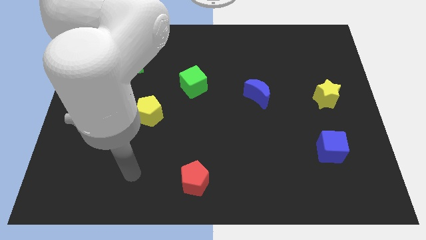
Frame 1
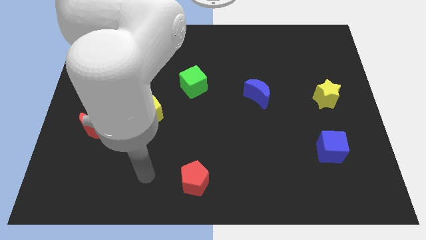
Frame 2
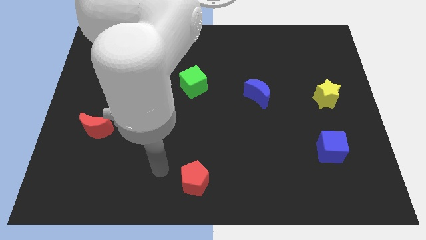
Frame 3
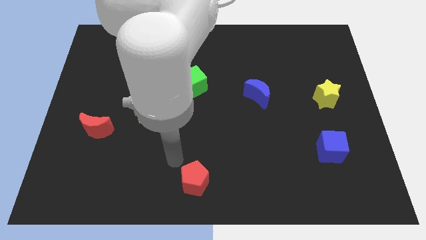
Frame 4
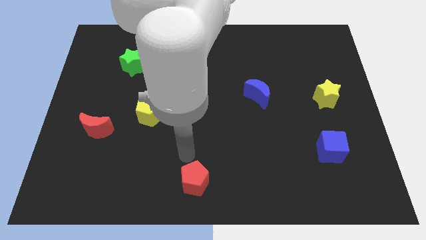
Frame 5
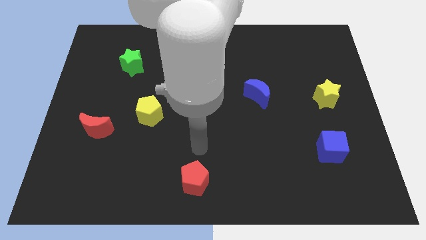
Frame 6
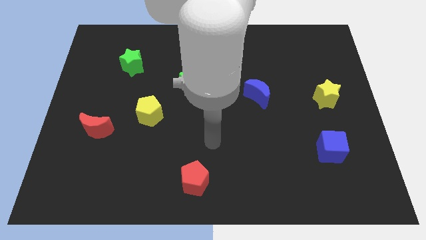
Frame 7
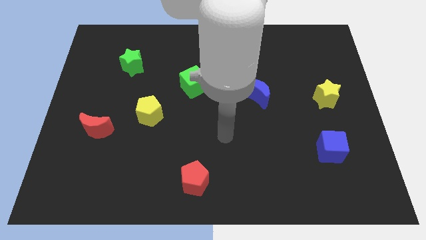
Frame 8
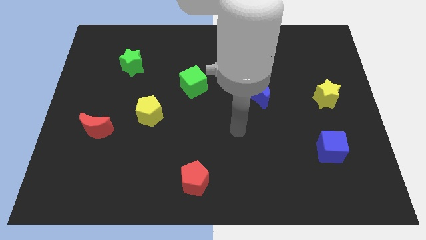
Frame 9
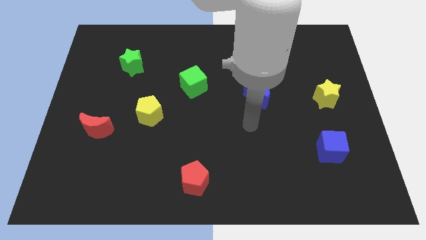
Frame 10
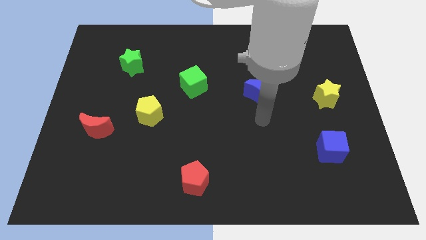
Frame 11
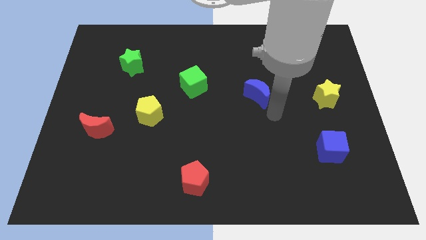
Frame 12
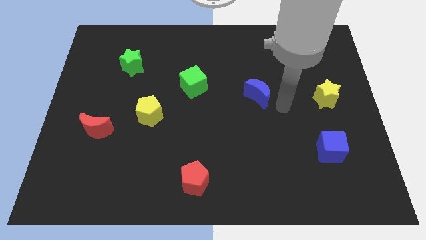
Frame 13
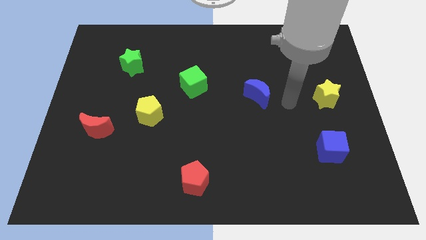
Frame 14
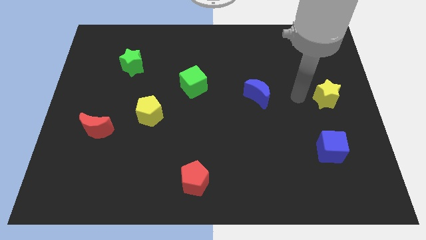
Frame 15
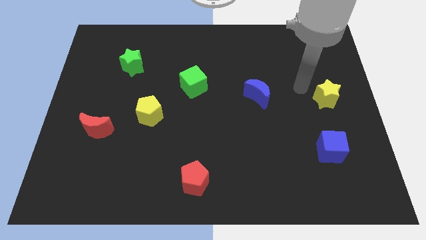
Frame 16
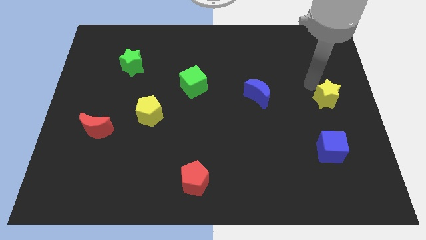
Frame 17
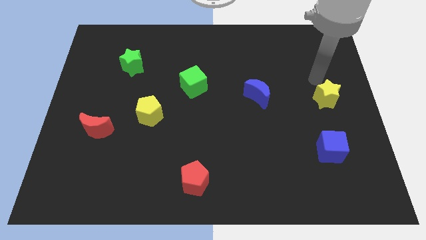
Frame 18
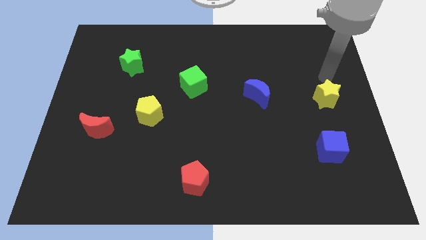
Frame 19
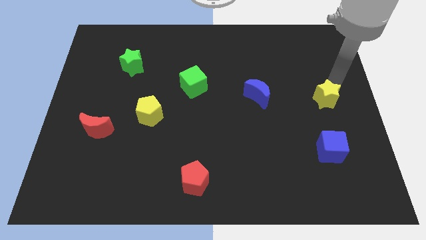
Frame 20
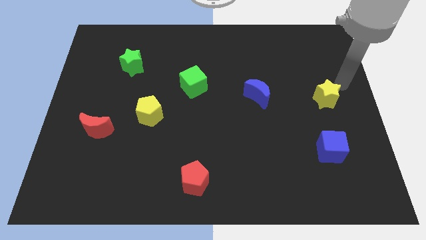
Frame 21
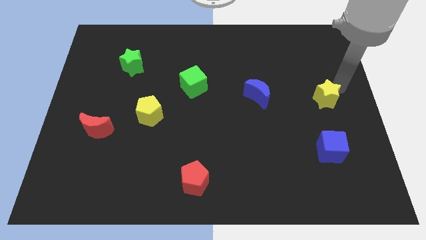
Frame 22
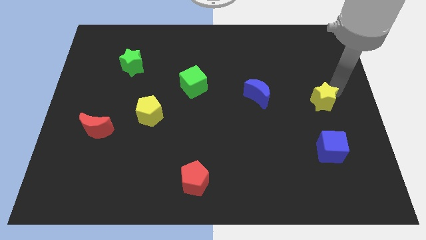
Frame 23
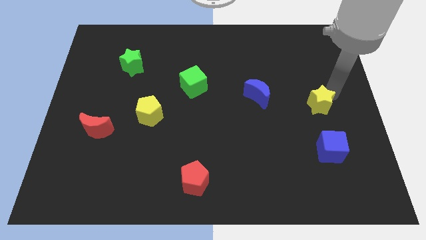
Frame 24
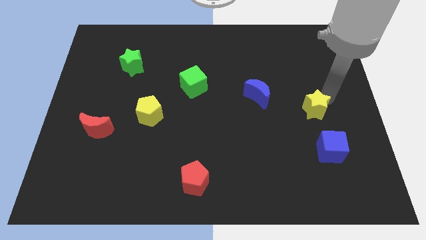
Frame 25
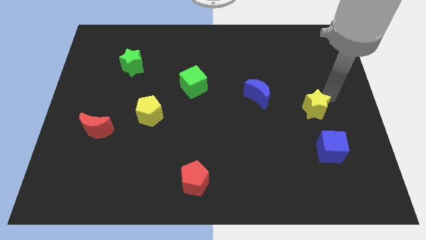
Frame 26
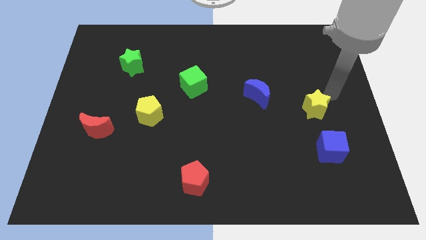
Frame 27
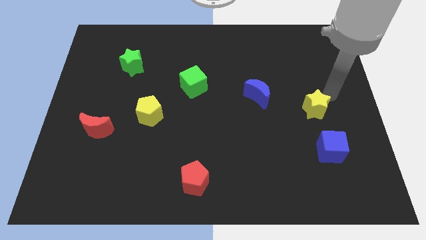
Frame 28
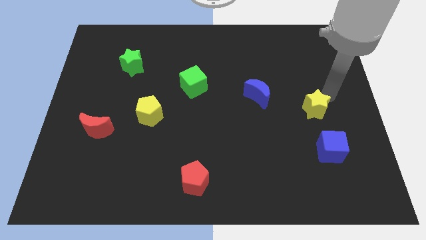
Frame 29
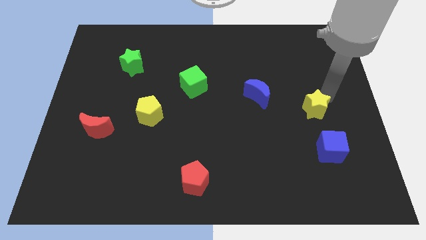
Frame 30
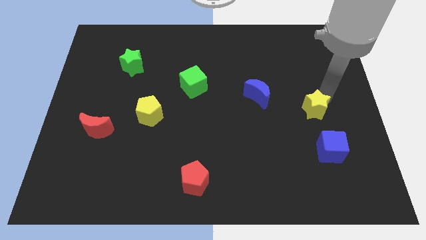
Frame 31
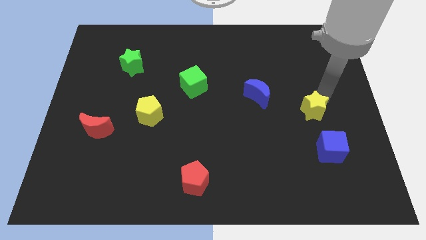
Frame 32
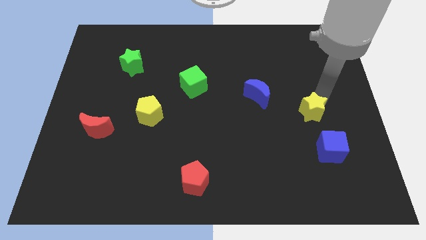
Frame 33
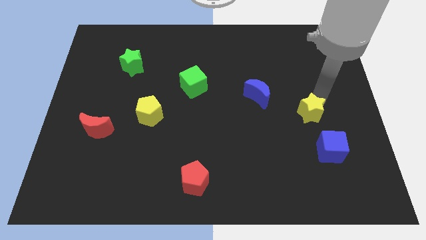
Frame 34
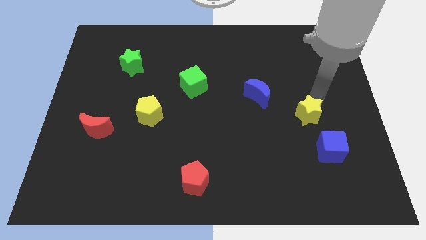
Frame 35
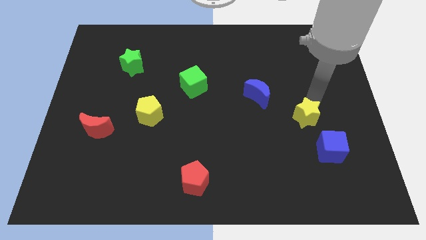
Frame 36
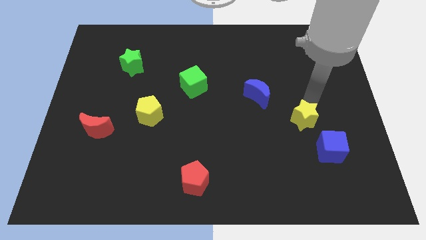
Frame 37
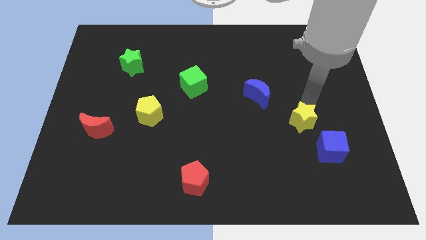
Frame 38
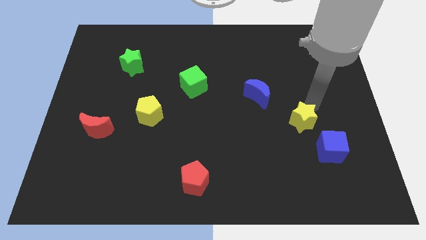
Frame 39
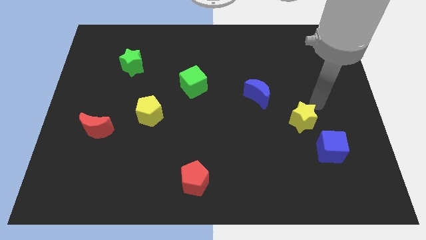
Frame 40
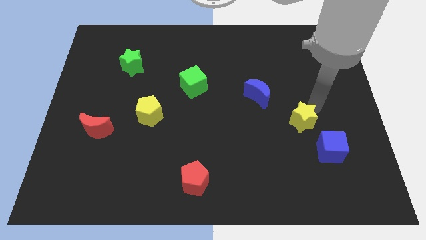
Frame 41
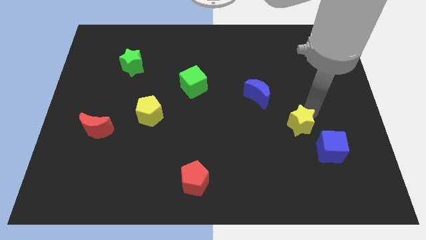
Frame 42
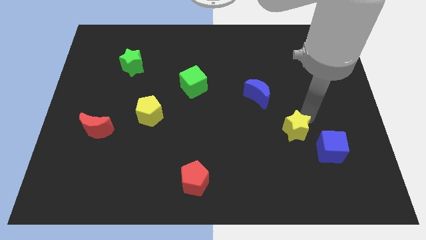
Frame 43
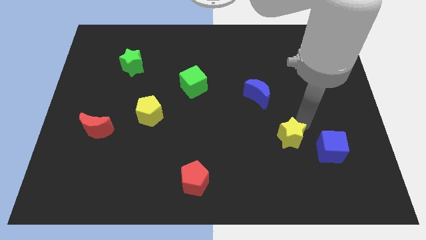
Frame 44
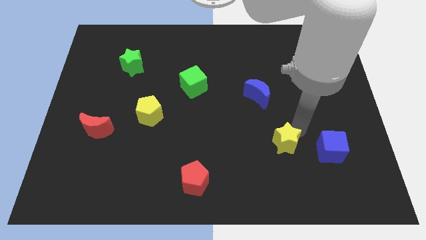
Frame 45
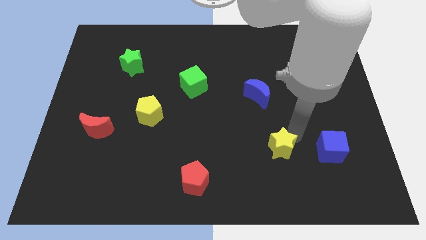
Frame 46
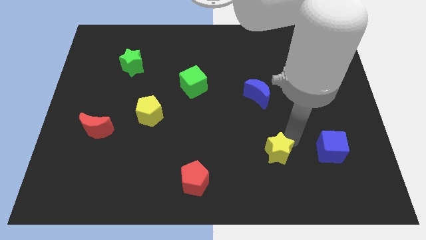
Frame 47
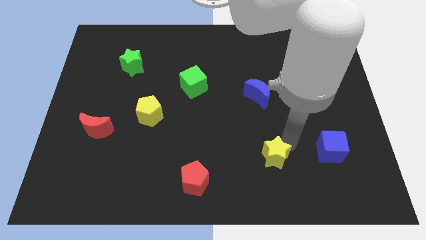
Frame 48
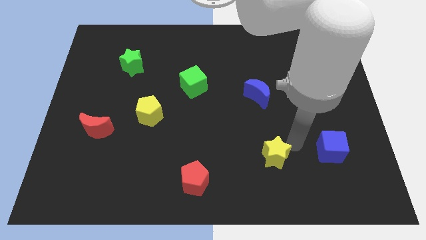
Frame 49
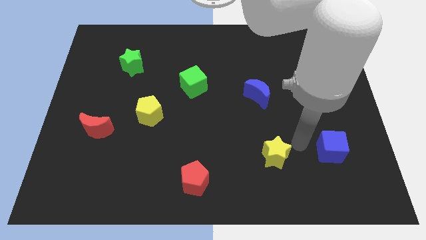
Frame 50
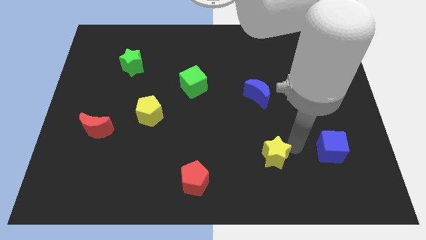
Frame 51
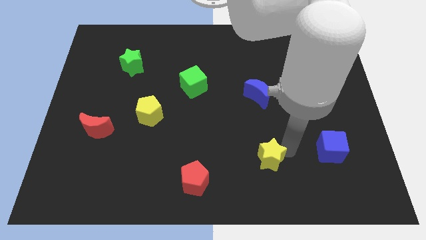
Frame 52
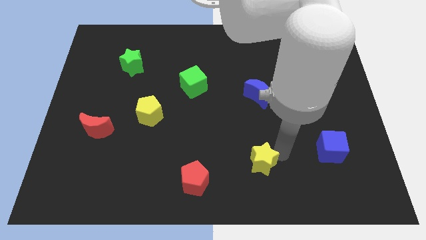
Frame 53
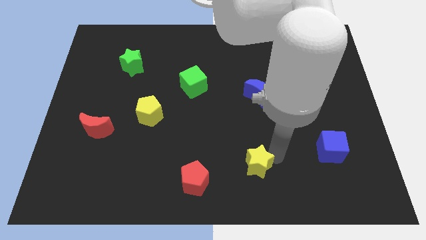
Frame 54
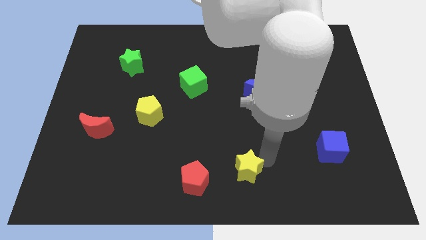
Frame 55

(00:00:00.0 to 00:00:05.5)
move the yellow star to the bottom side

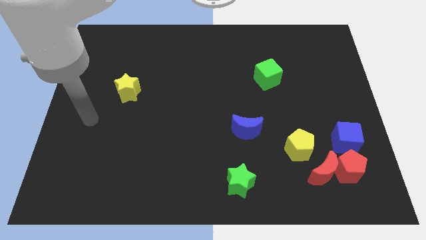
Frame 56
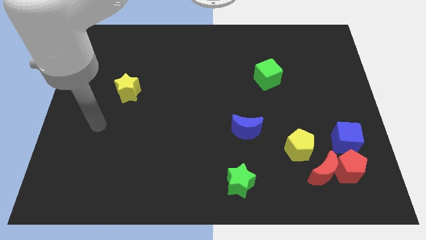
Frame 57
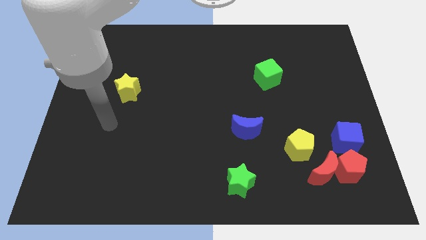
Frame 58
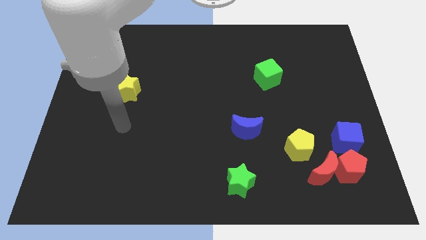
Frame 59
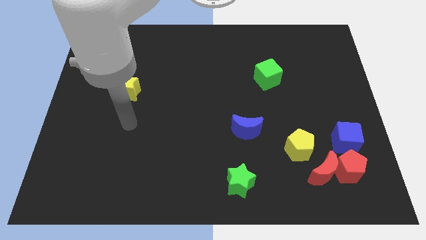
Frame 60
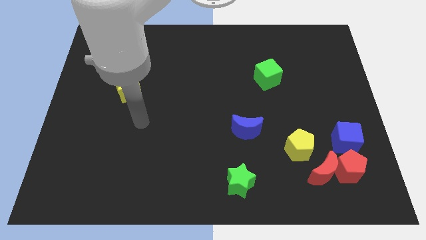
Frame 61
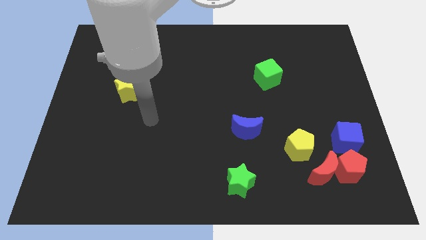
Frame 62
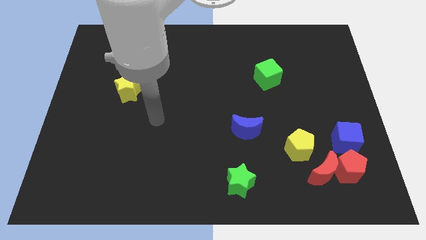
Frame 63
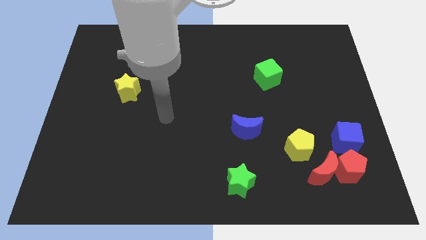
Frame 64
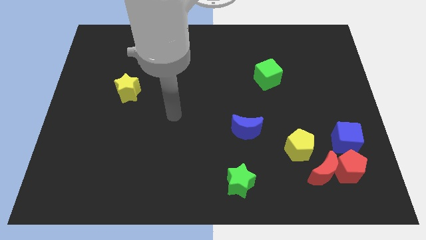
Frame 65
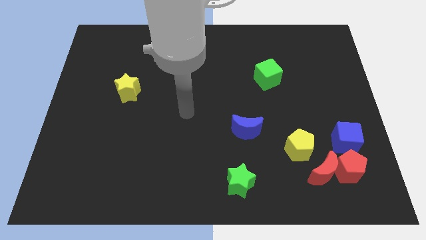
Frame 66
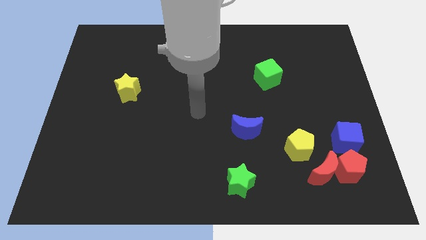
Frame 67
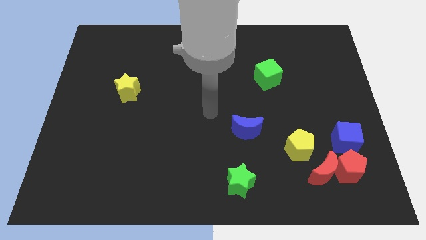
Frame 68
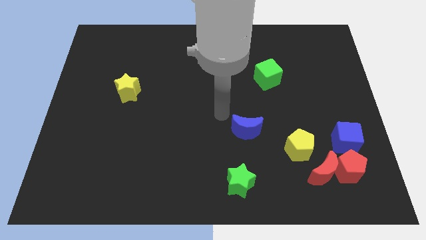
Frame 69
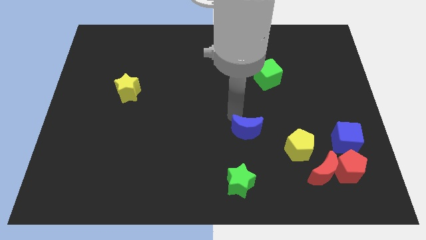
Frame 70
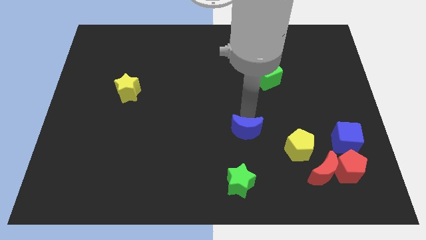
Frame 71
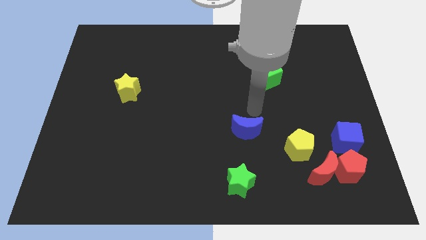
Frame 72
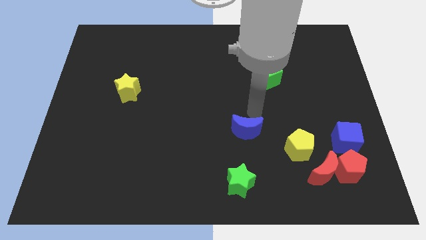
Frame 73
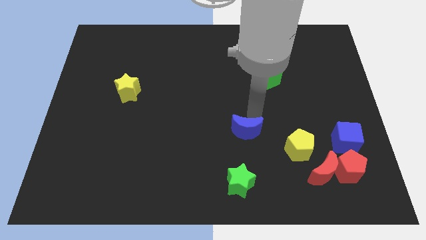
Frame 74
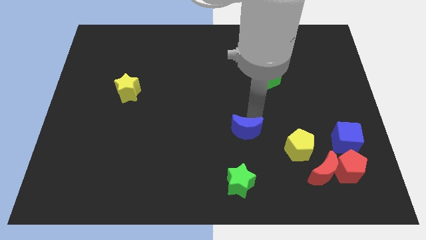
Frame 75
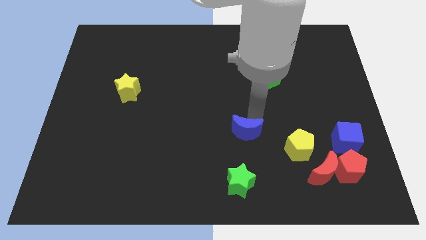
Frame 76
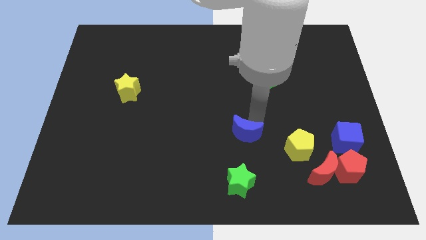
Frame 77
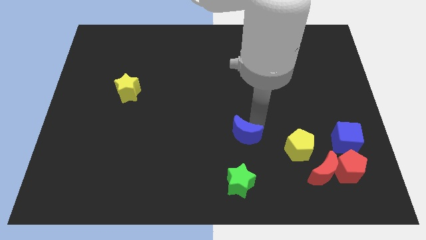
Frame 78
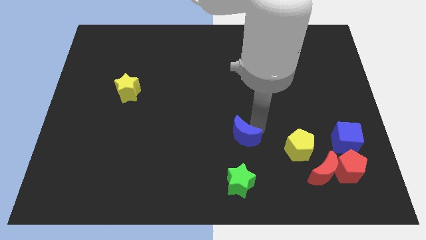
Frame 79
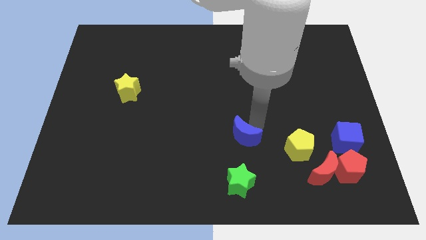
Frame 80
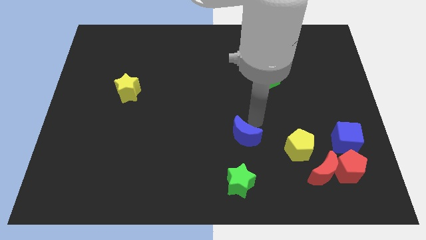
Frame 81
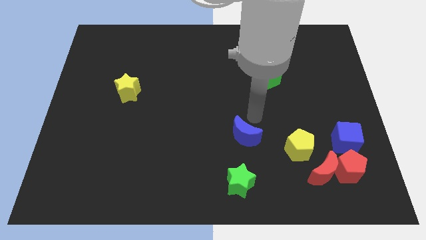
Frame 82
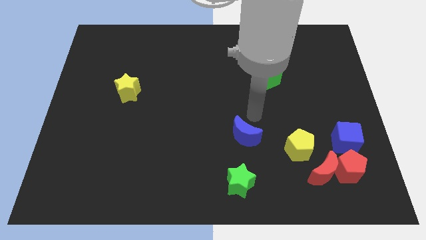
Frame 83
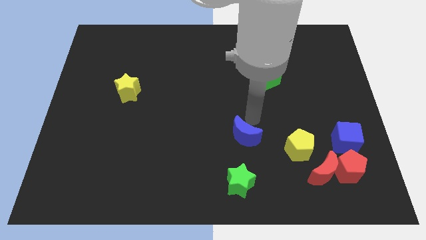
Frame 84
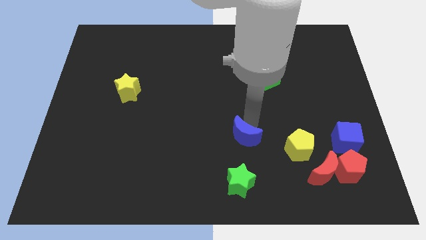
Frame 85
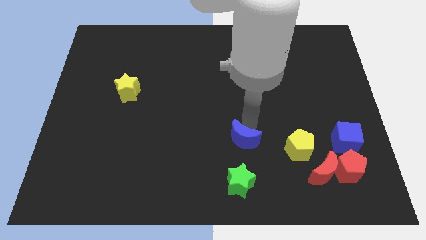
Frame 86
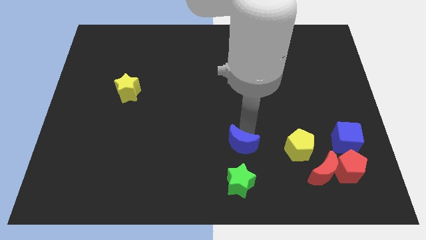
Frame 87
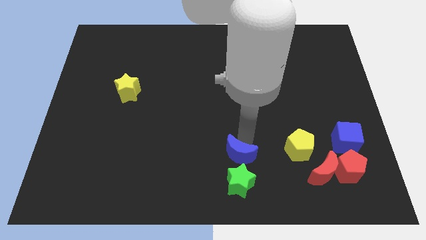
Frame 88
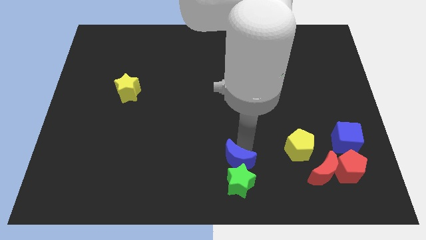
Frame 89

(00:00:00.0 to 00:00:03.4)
slide the blue moon to the bottom side
